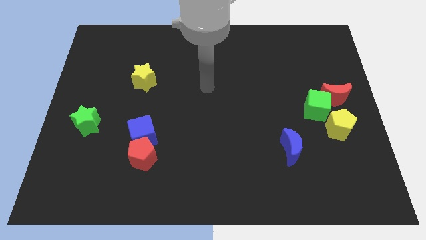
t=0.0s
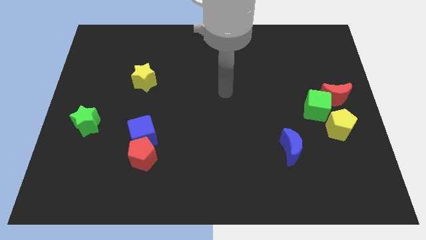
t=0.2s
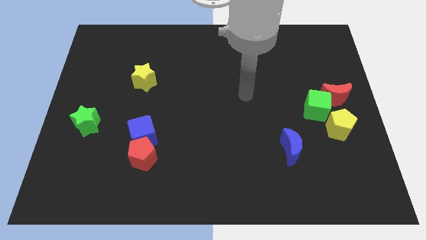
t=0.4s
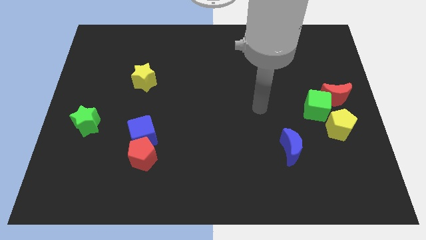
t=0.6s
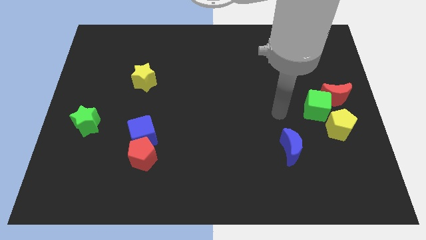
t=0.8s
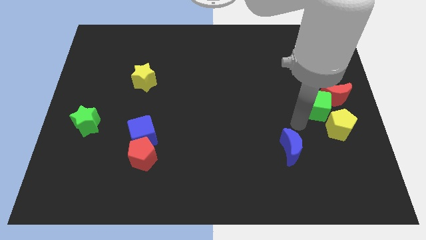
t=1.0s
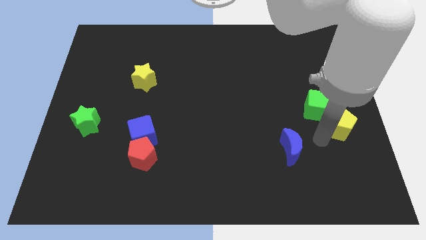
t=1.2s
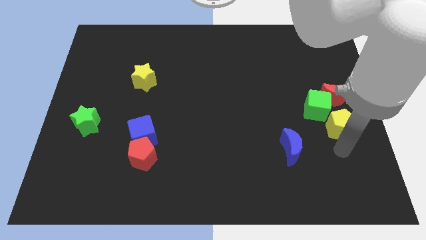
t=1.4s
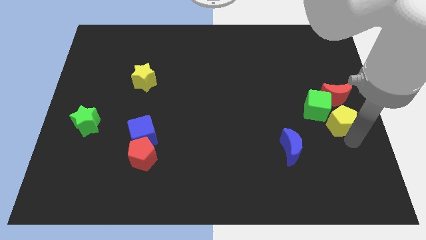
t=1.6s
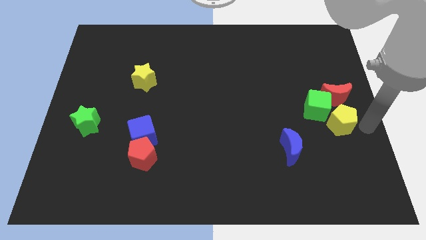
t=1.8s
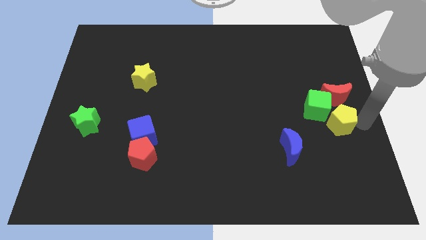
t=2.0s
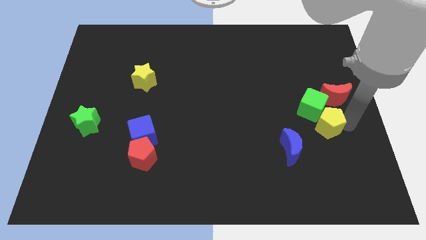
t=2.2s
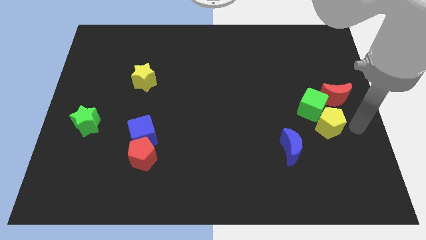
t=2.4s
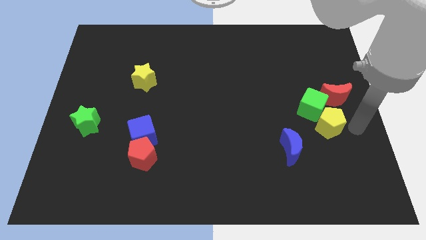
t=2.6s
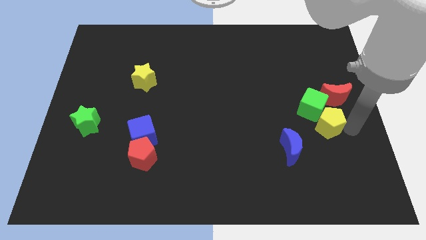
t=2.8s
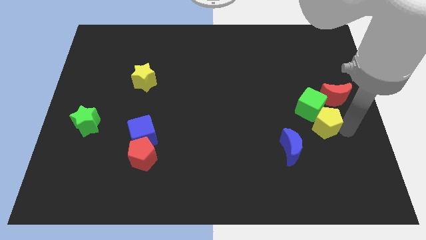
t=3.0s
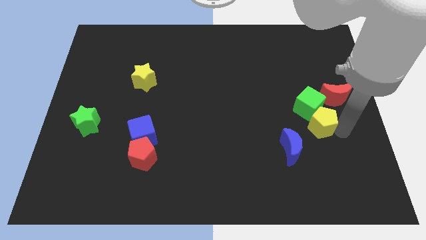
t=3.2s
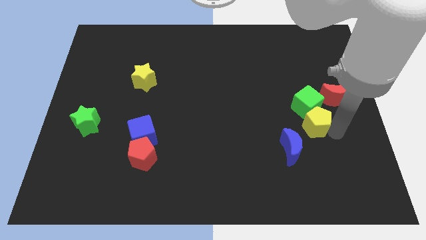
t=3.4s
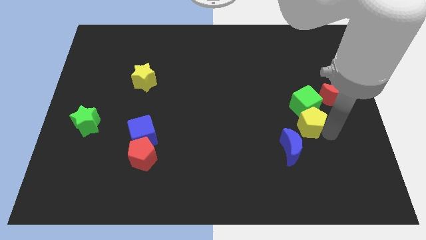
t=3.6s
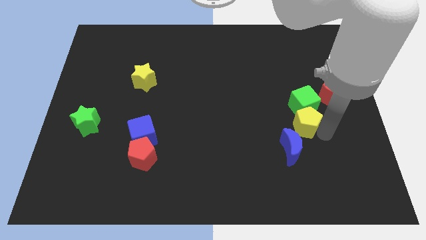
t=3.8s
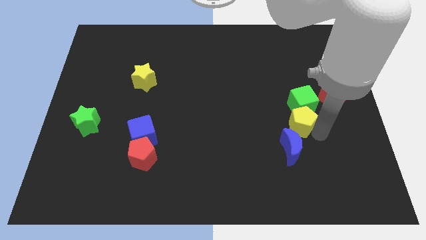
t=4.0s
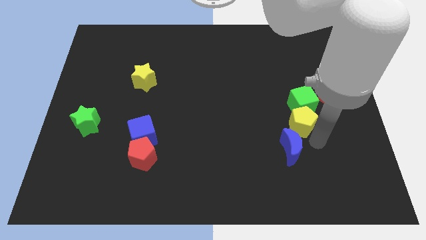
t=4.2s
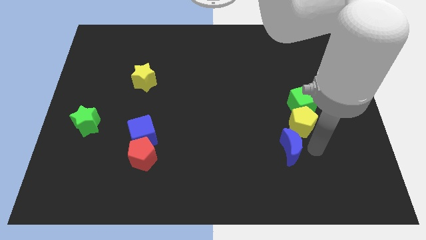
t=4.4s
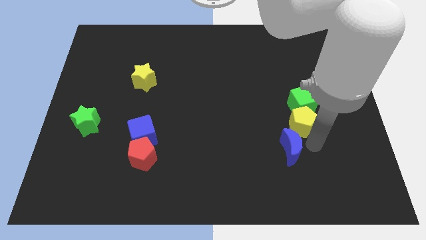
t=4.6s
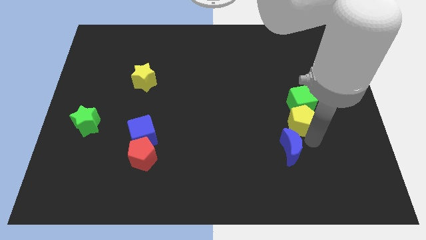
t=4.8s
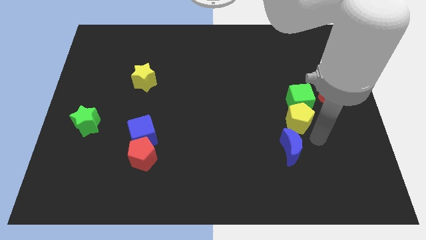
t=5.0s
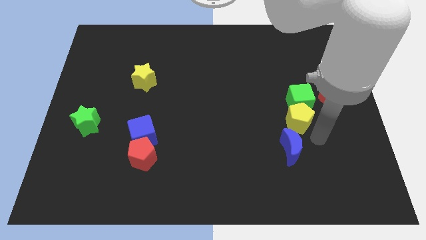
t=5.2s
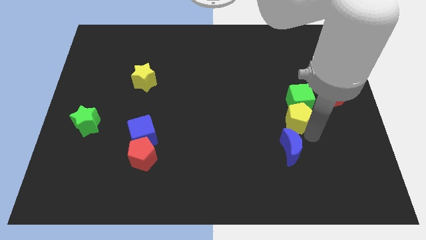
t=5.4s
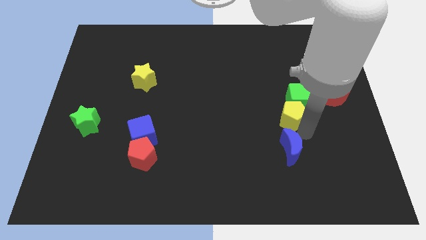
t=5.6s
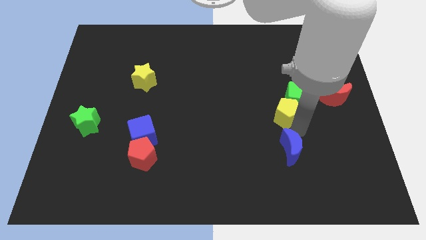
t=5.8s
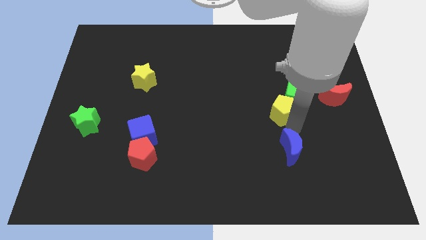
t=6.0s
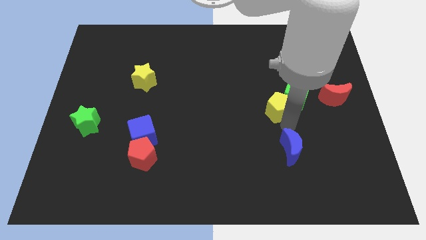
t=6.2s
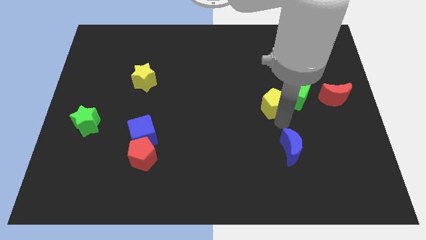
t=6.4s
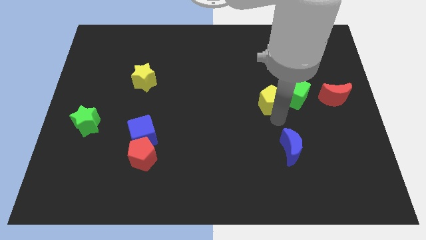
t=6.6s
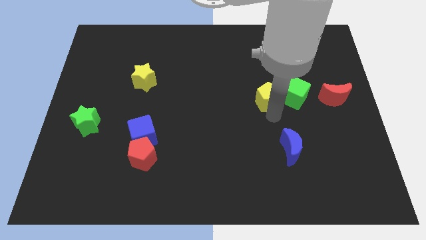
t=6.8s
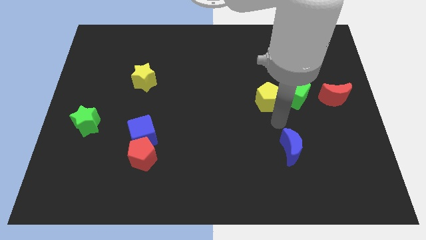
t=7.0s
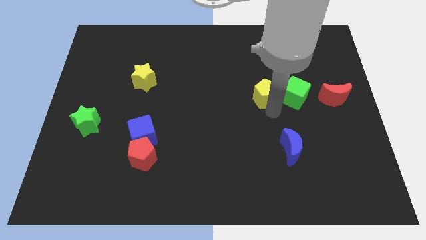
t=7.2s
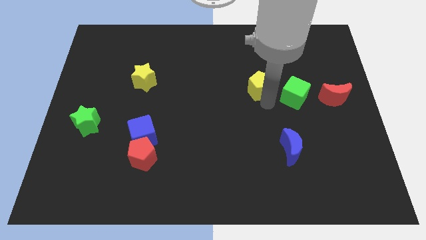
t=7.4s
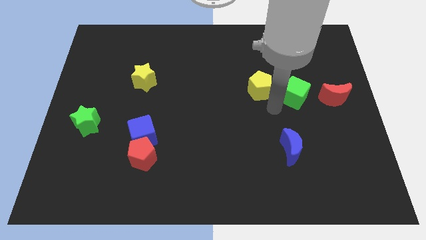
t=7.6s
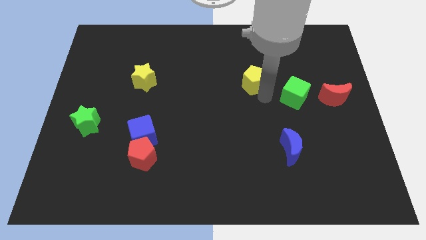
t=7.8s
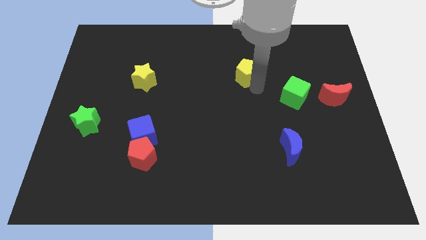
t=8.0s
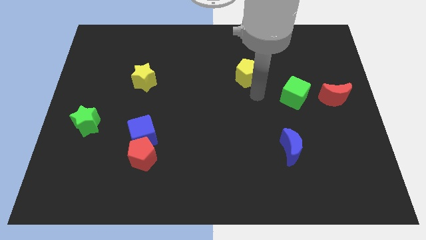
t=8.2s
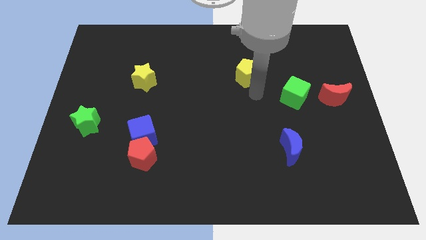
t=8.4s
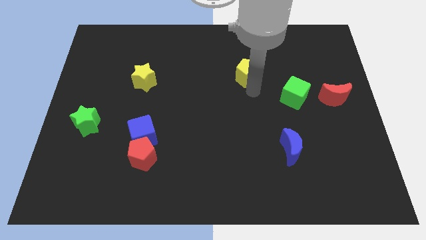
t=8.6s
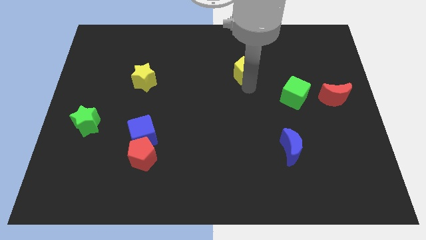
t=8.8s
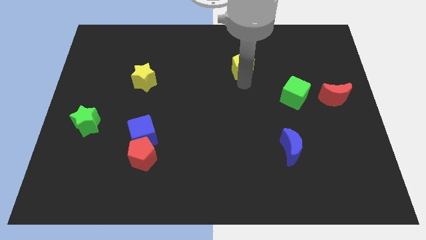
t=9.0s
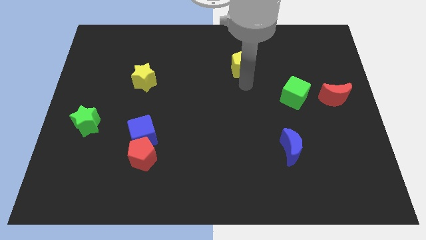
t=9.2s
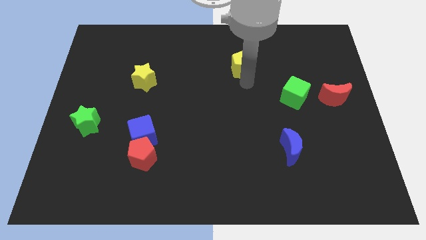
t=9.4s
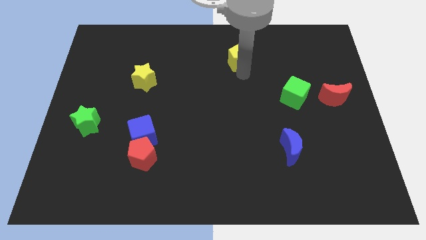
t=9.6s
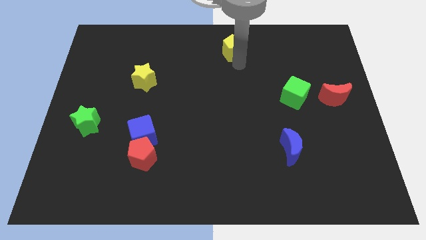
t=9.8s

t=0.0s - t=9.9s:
move the yellow pentagon to the towards your base

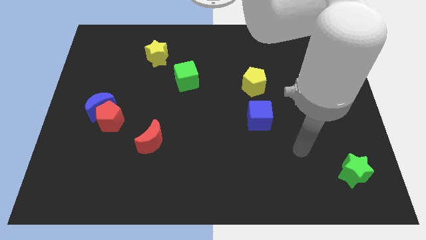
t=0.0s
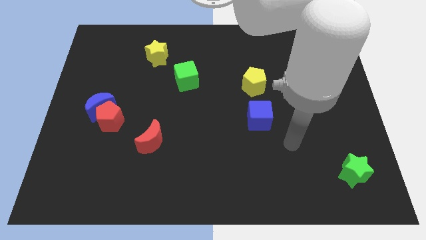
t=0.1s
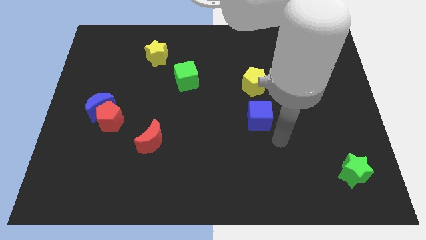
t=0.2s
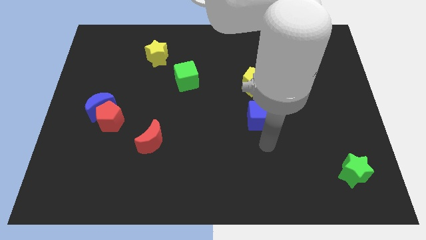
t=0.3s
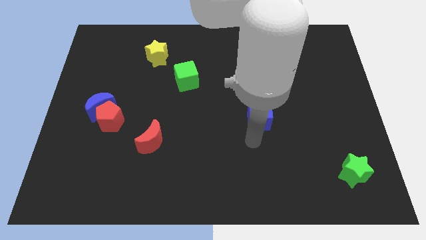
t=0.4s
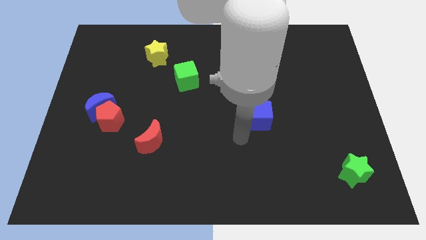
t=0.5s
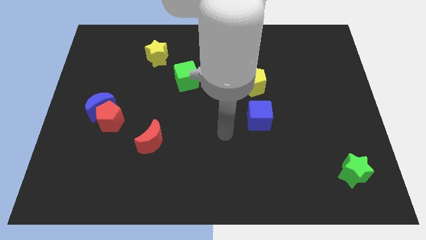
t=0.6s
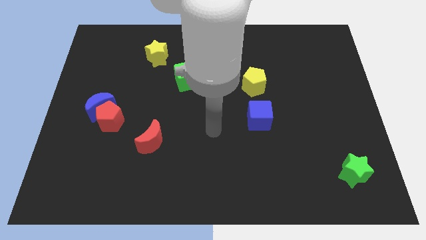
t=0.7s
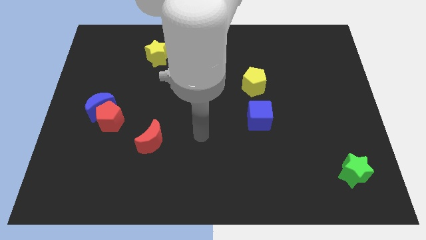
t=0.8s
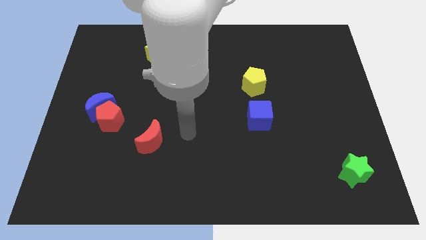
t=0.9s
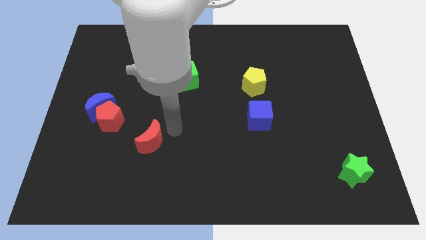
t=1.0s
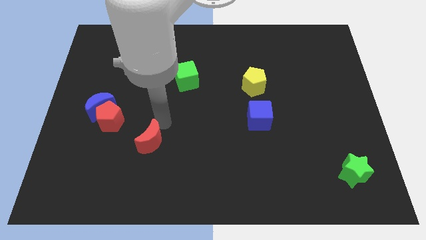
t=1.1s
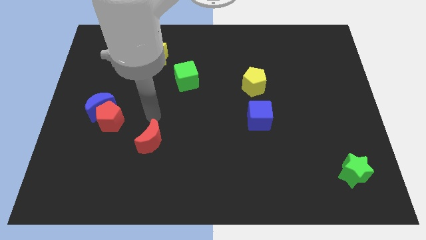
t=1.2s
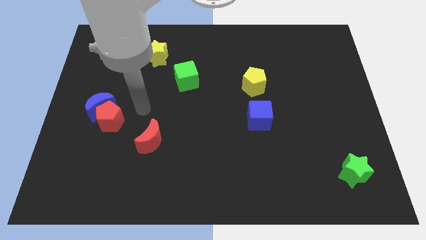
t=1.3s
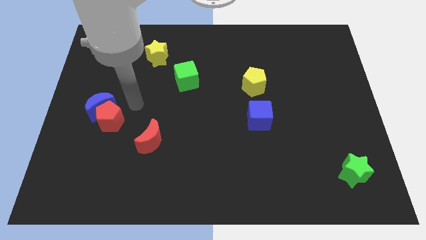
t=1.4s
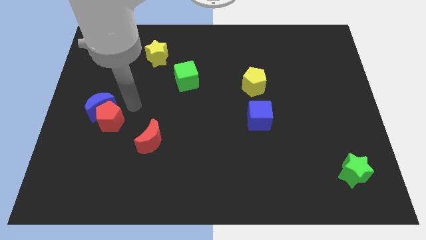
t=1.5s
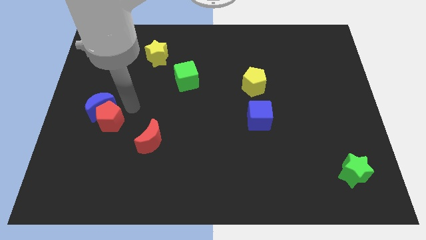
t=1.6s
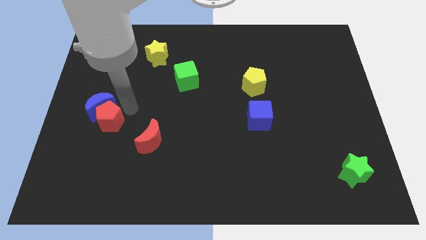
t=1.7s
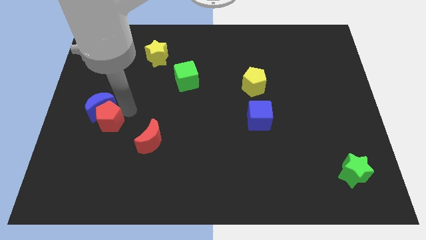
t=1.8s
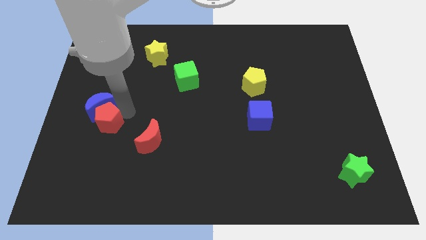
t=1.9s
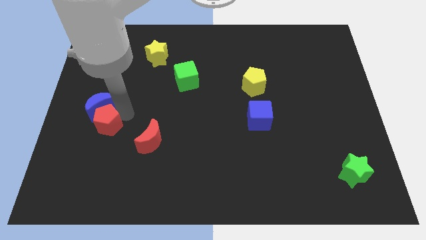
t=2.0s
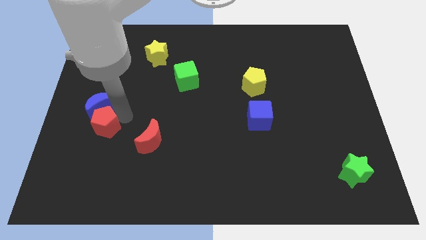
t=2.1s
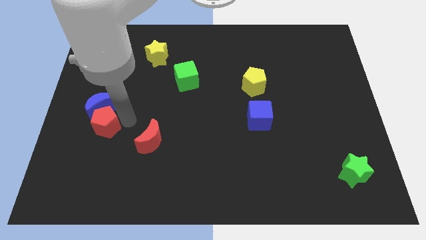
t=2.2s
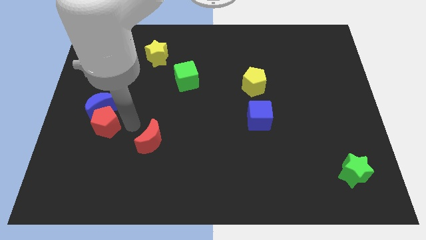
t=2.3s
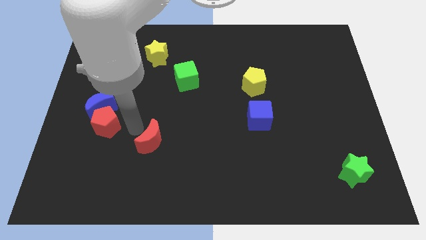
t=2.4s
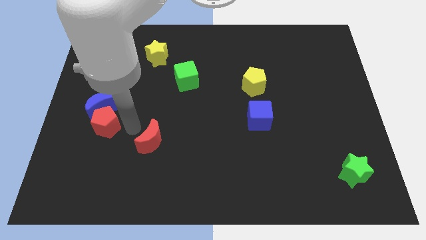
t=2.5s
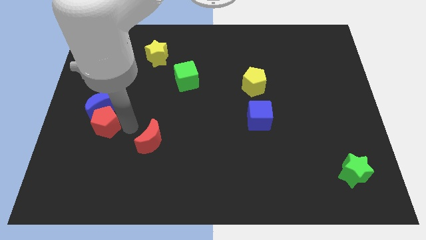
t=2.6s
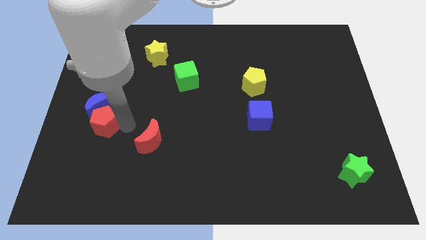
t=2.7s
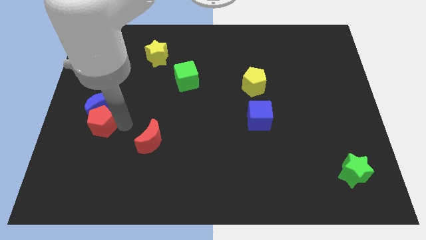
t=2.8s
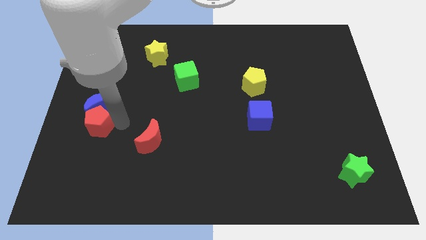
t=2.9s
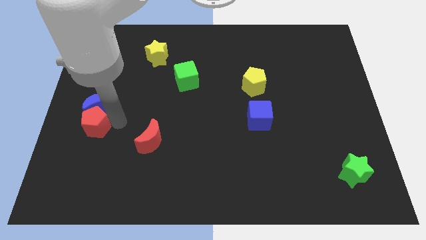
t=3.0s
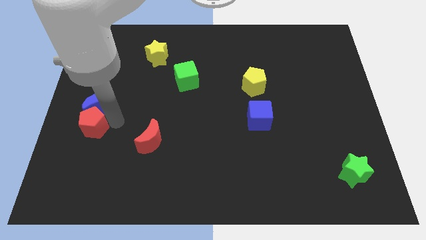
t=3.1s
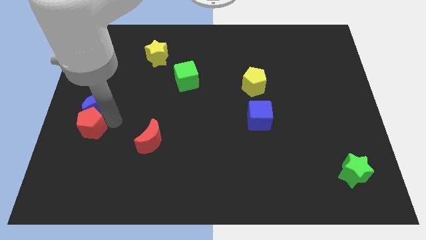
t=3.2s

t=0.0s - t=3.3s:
slide the red pentagon to the center left
